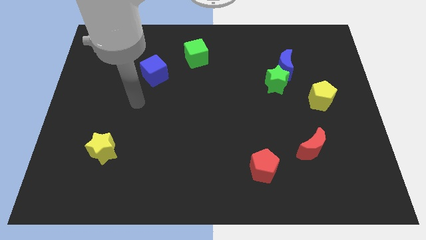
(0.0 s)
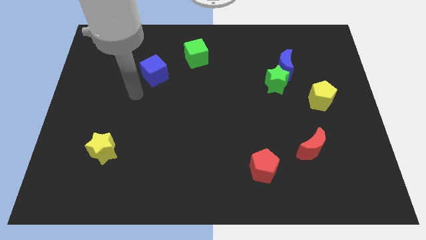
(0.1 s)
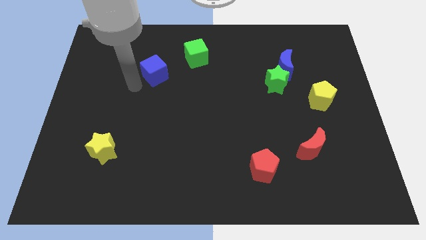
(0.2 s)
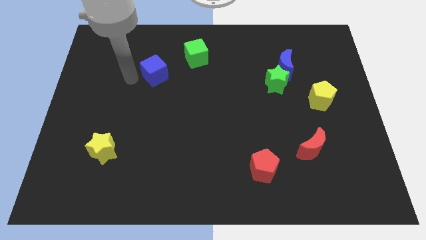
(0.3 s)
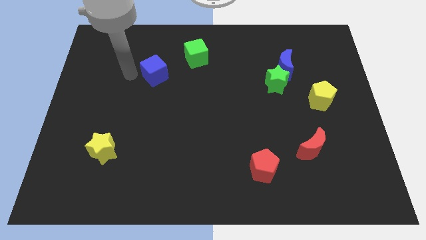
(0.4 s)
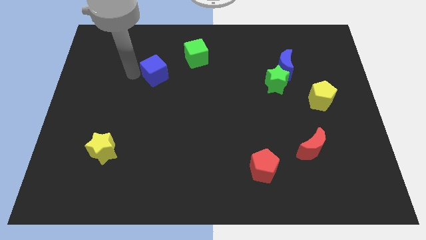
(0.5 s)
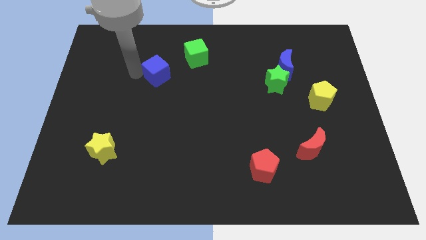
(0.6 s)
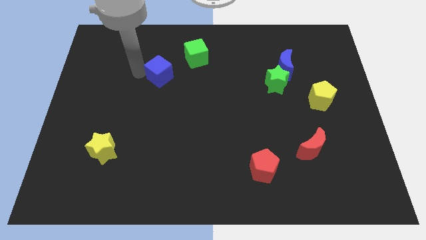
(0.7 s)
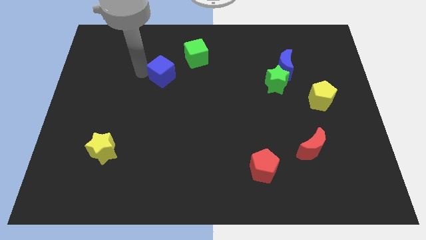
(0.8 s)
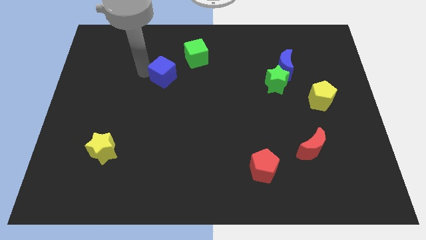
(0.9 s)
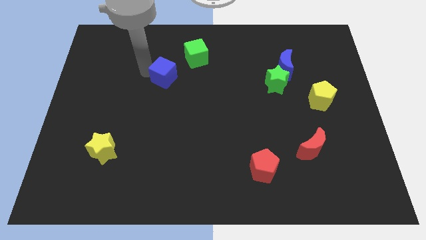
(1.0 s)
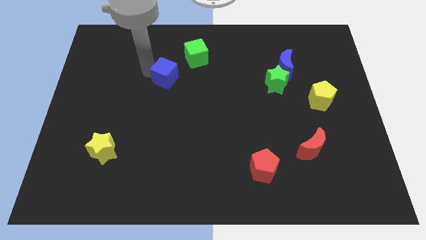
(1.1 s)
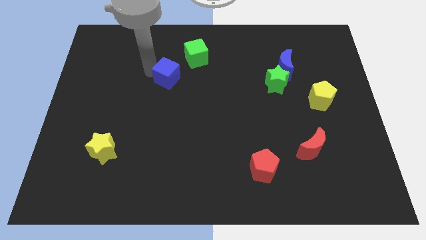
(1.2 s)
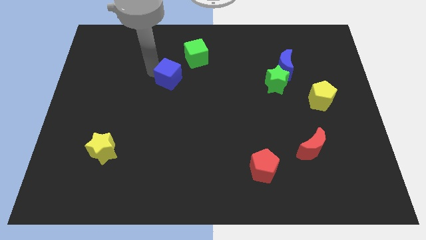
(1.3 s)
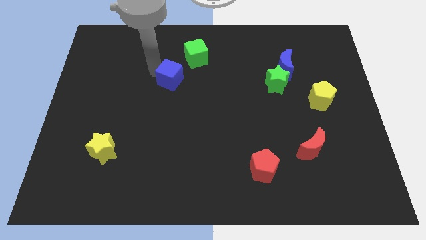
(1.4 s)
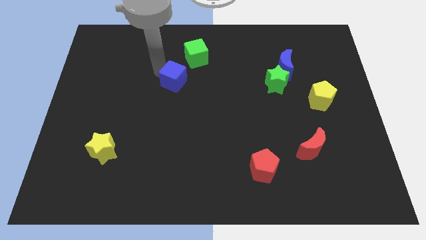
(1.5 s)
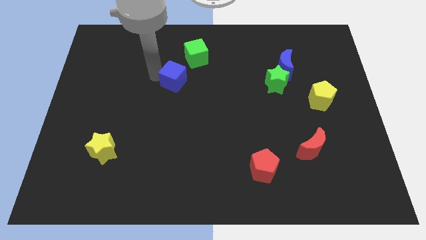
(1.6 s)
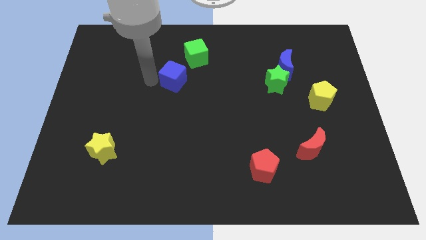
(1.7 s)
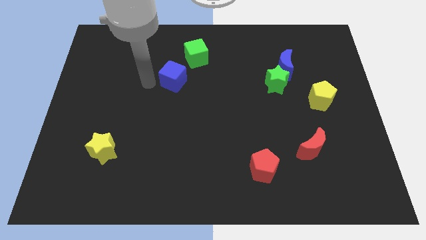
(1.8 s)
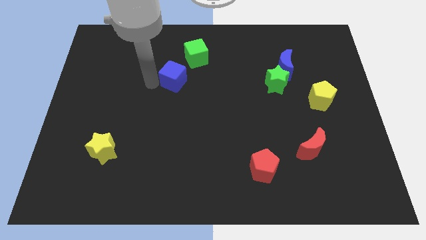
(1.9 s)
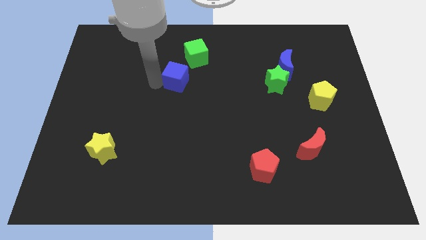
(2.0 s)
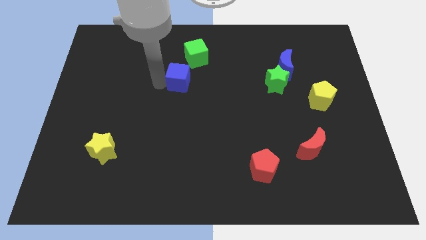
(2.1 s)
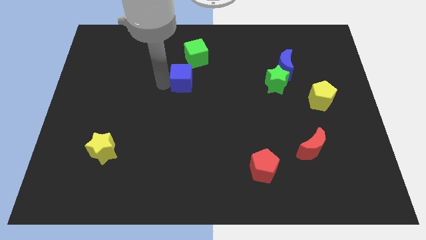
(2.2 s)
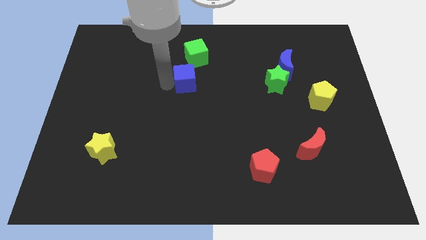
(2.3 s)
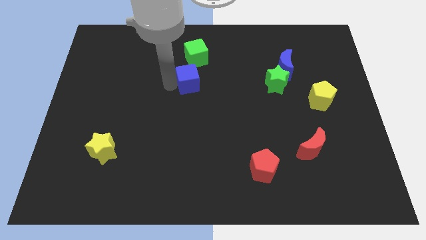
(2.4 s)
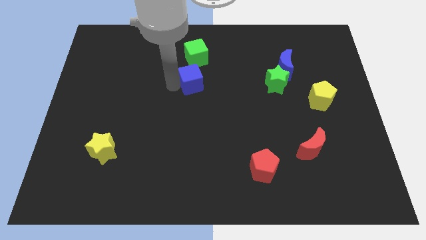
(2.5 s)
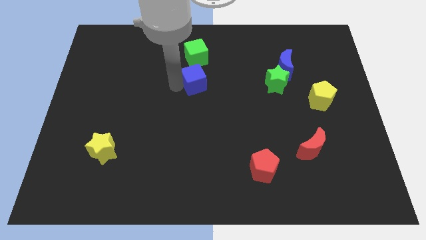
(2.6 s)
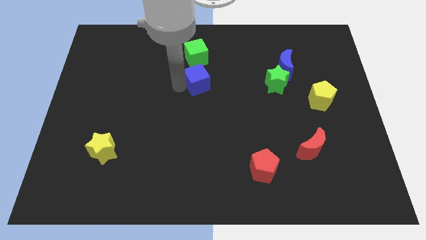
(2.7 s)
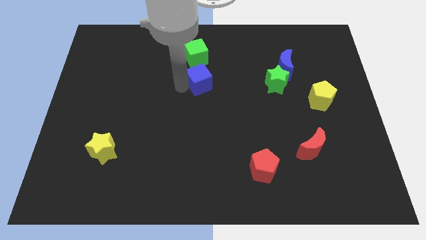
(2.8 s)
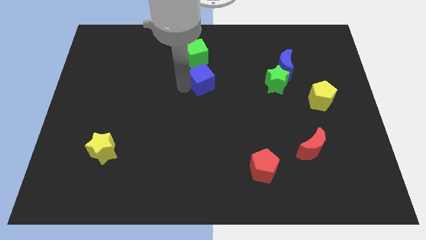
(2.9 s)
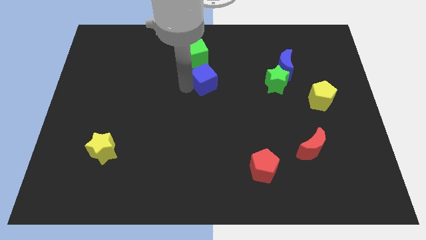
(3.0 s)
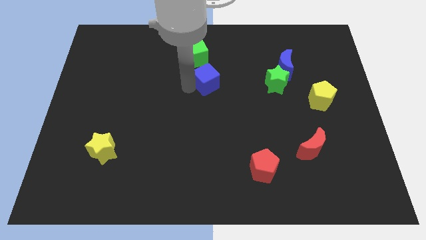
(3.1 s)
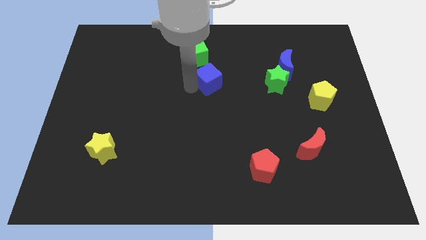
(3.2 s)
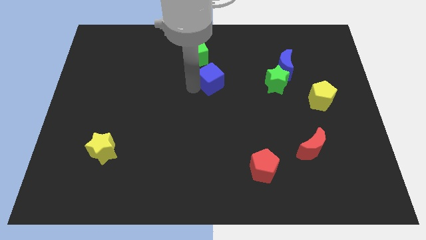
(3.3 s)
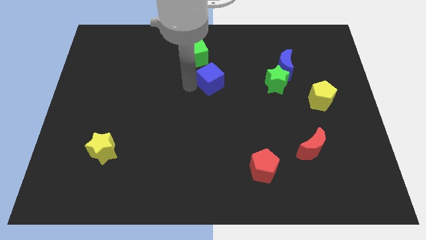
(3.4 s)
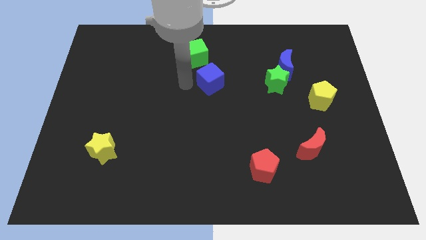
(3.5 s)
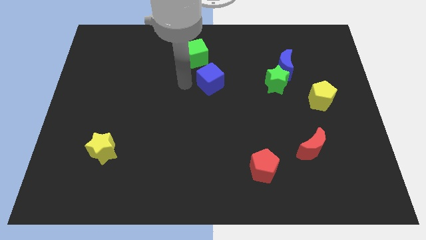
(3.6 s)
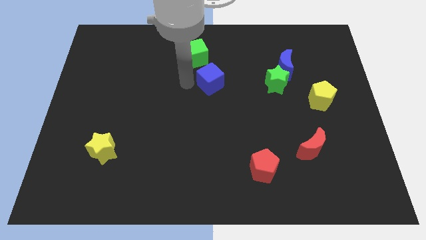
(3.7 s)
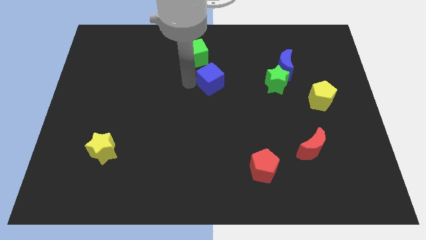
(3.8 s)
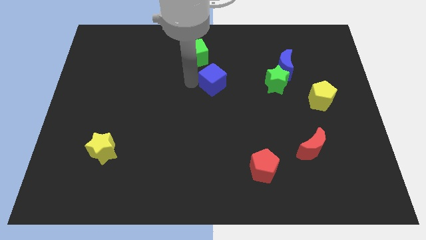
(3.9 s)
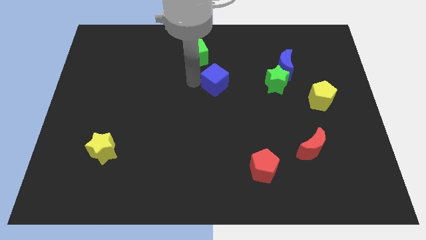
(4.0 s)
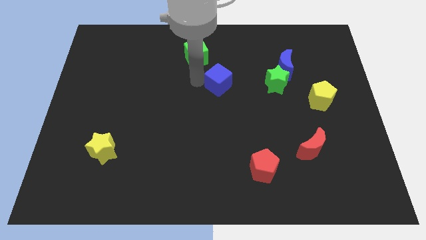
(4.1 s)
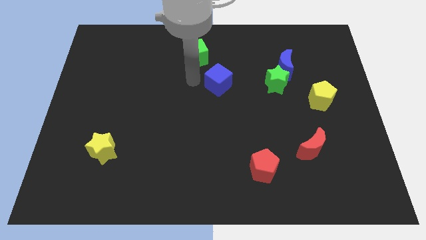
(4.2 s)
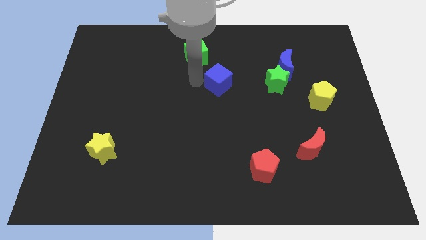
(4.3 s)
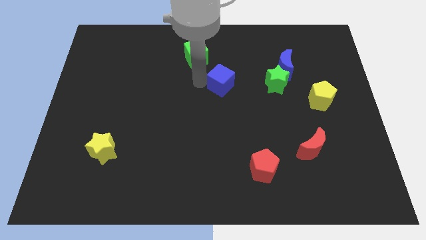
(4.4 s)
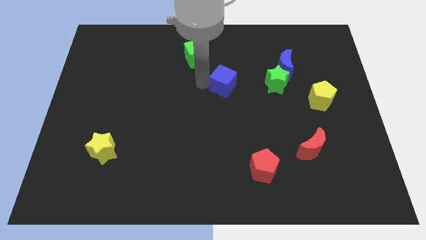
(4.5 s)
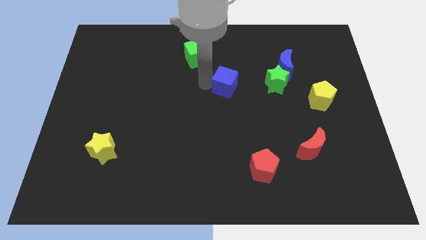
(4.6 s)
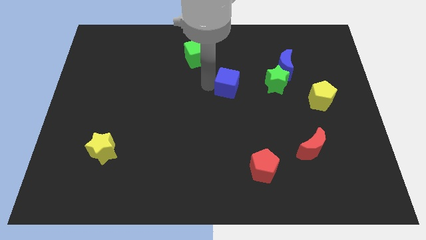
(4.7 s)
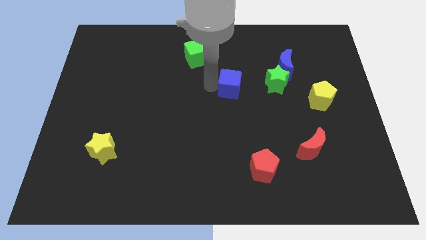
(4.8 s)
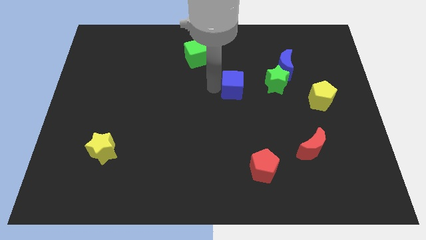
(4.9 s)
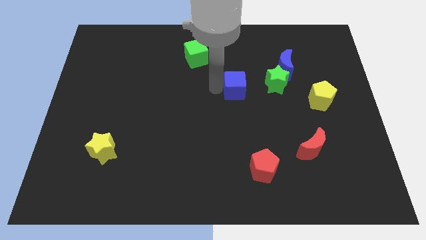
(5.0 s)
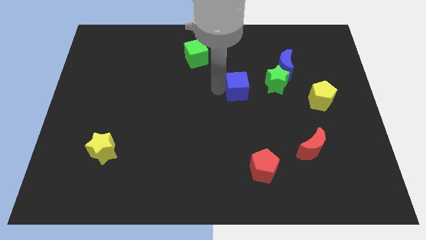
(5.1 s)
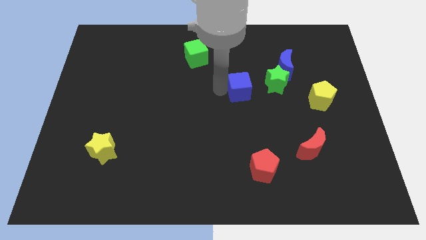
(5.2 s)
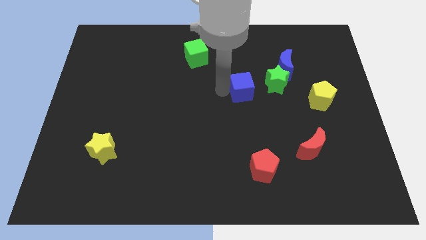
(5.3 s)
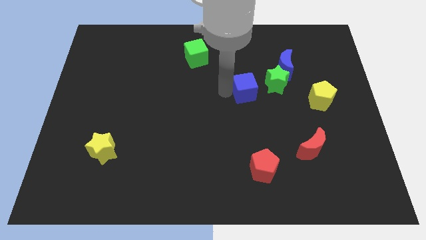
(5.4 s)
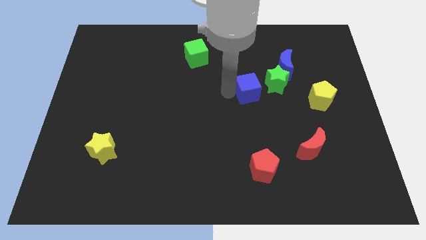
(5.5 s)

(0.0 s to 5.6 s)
slide the blue cube to the bottom left of the blue moon

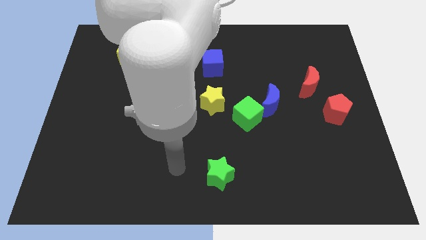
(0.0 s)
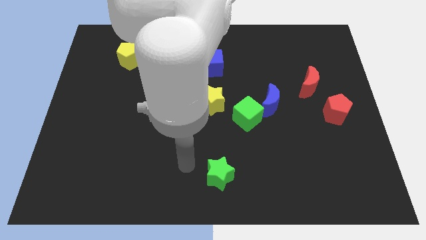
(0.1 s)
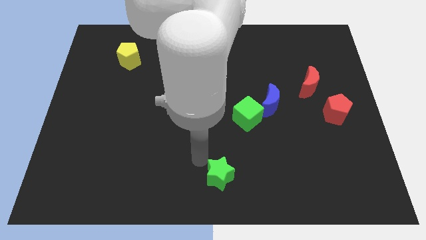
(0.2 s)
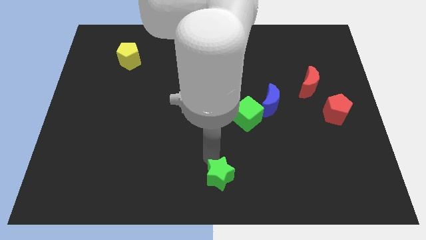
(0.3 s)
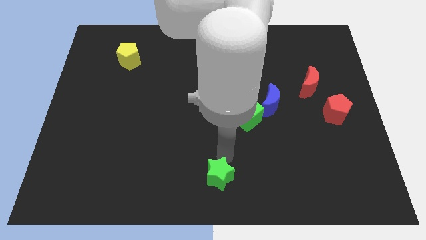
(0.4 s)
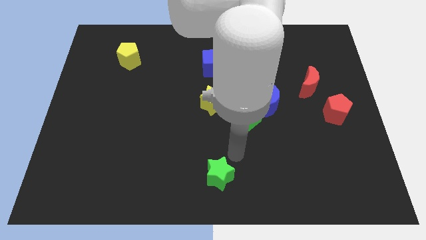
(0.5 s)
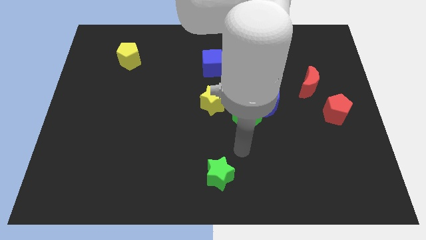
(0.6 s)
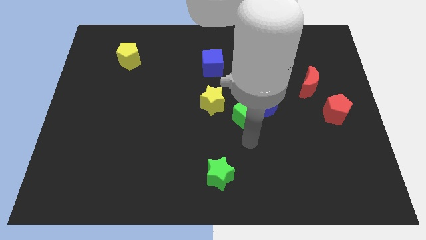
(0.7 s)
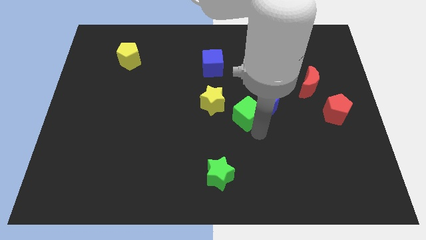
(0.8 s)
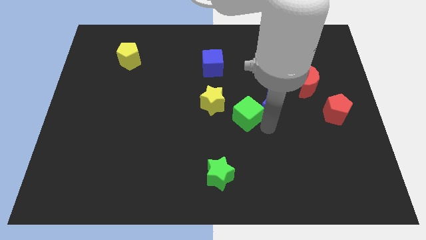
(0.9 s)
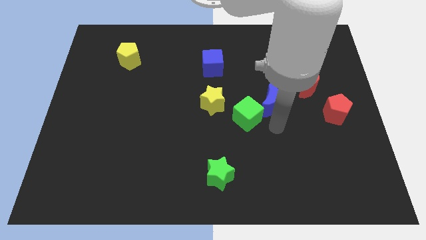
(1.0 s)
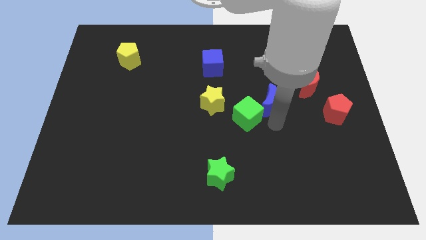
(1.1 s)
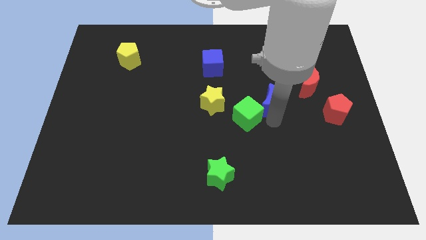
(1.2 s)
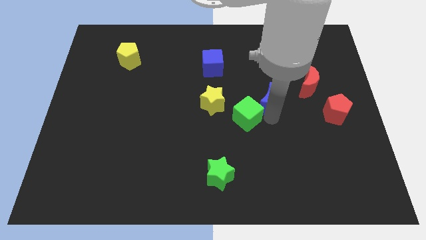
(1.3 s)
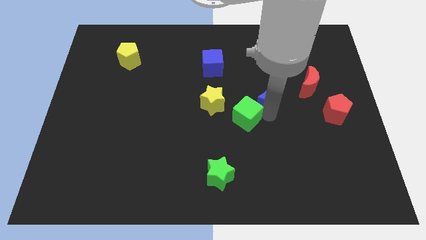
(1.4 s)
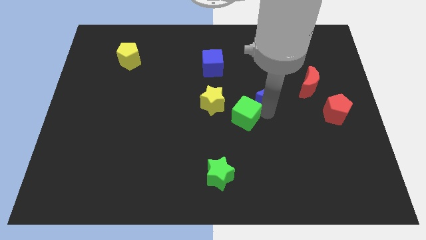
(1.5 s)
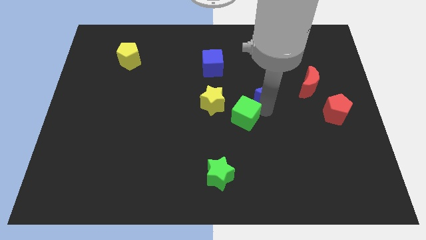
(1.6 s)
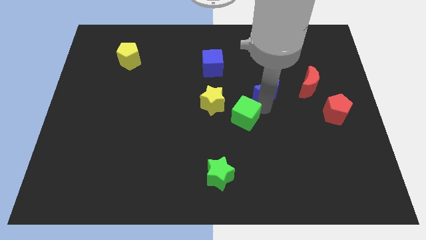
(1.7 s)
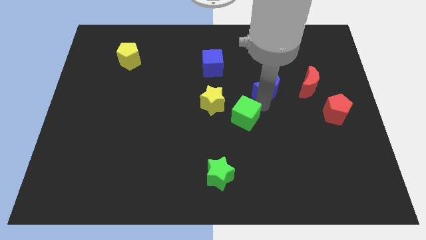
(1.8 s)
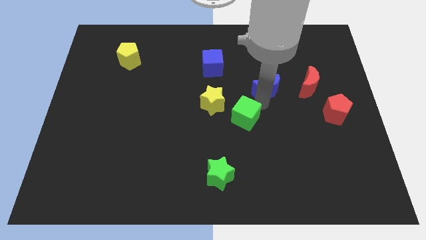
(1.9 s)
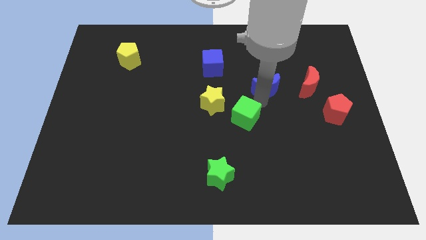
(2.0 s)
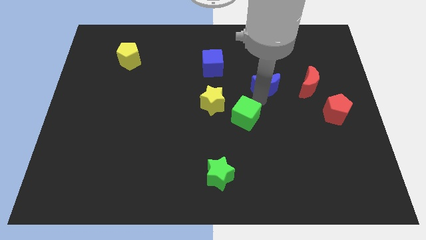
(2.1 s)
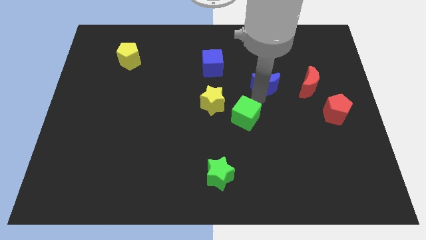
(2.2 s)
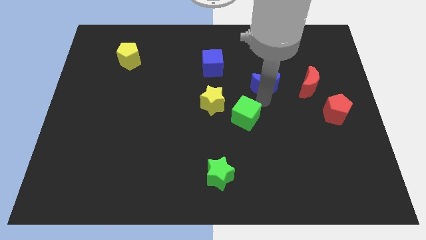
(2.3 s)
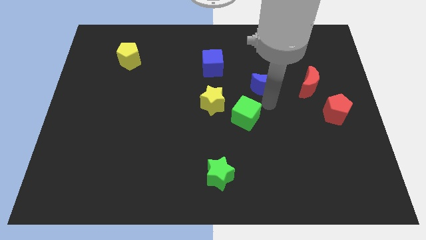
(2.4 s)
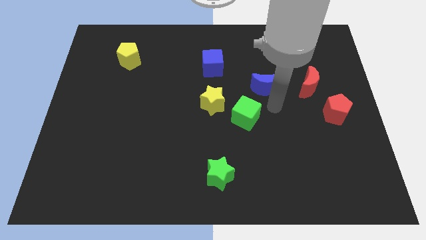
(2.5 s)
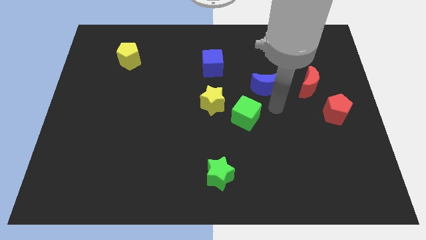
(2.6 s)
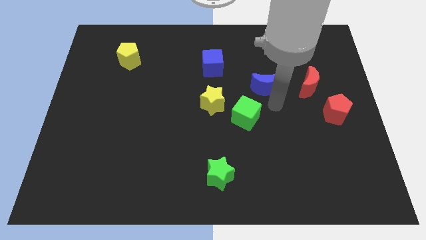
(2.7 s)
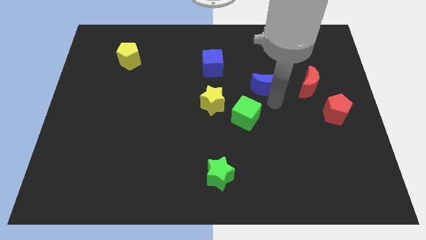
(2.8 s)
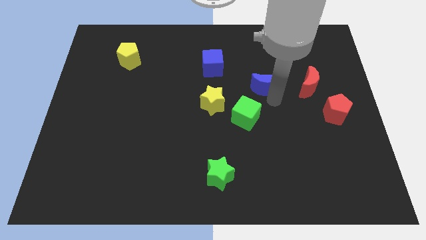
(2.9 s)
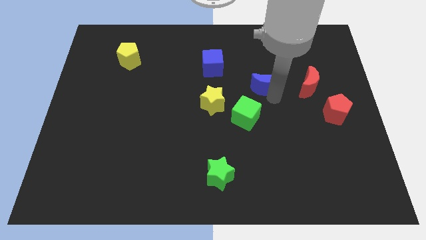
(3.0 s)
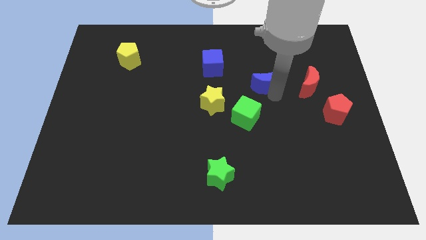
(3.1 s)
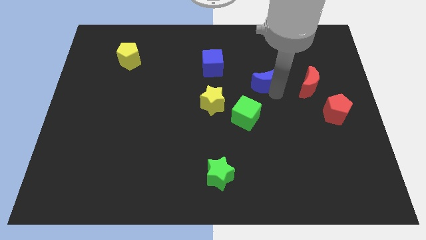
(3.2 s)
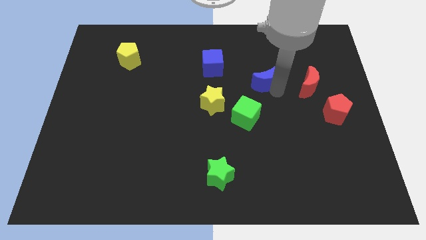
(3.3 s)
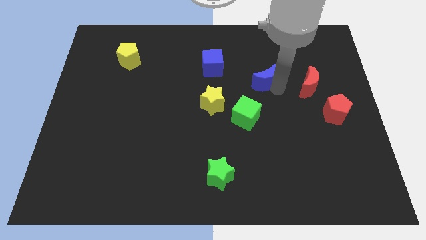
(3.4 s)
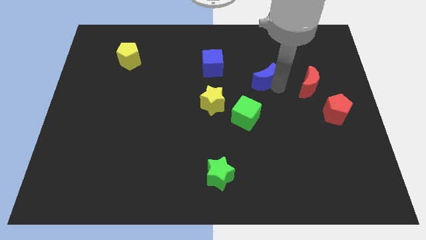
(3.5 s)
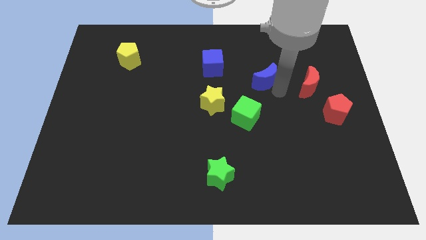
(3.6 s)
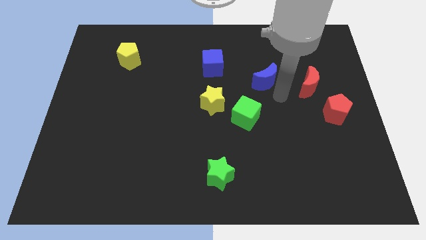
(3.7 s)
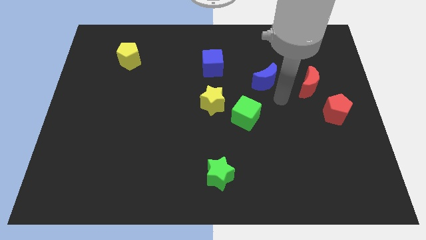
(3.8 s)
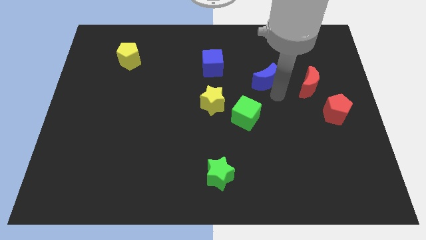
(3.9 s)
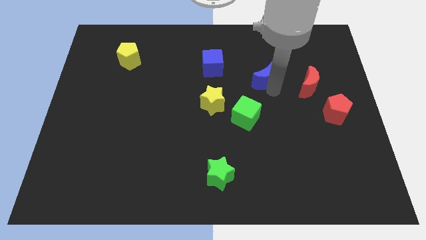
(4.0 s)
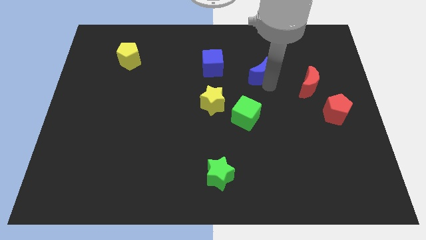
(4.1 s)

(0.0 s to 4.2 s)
put the blue moon right of the blue cube
